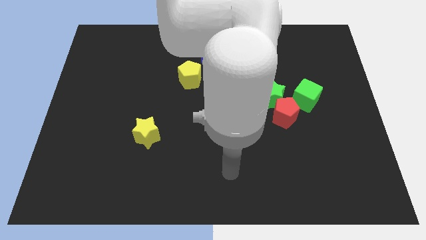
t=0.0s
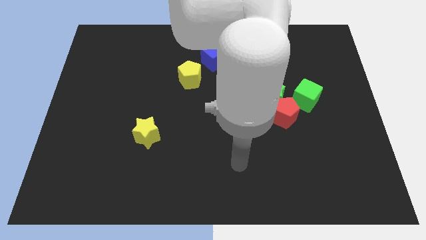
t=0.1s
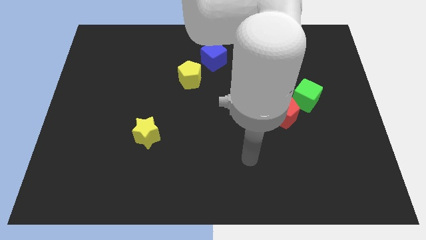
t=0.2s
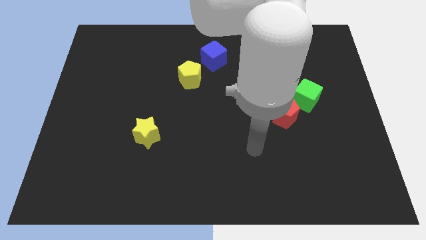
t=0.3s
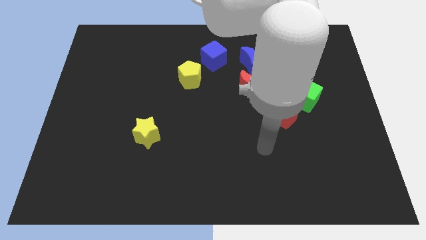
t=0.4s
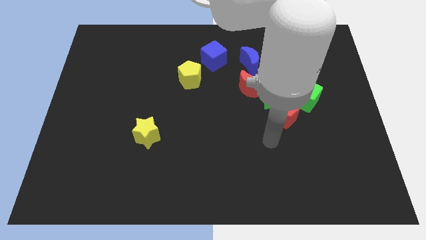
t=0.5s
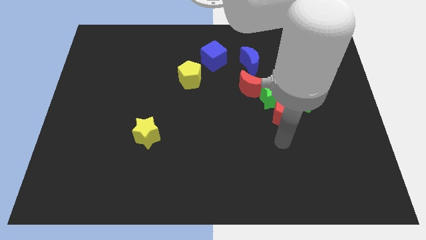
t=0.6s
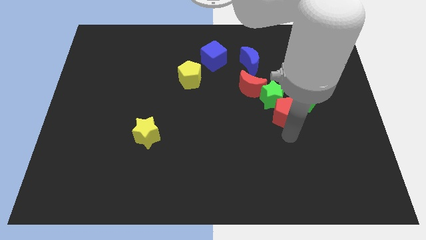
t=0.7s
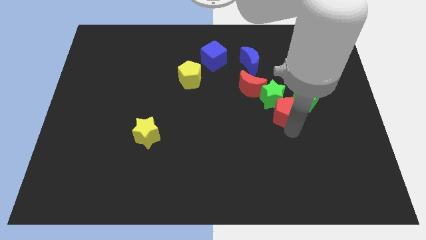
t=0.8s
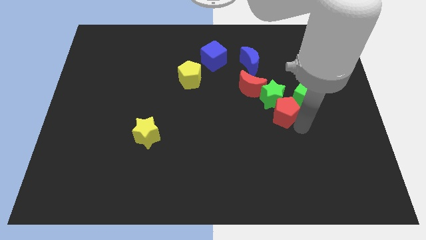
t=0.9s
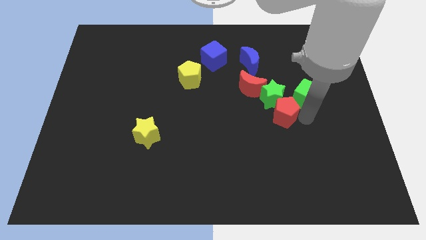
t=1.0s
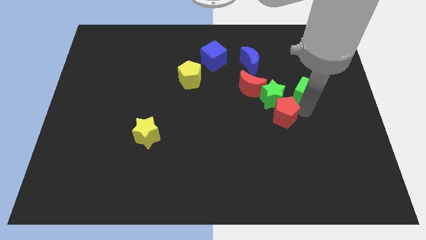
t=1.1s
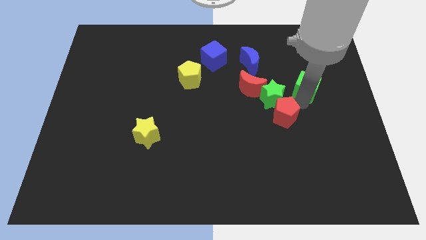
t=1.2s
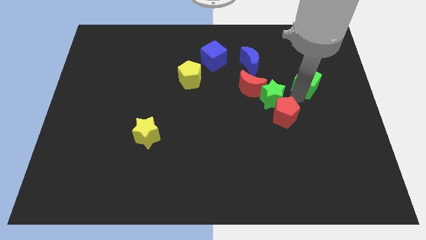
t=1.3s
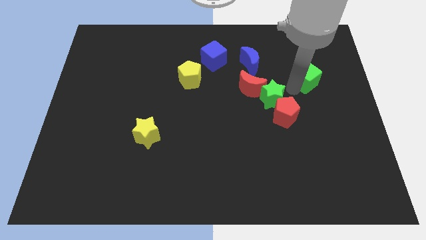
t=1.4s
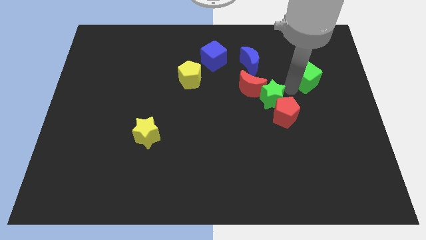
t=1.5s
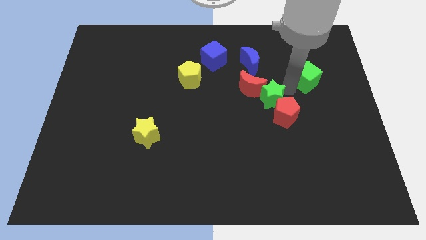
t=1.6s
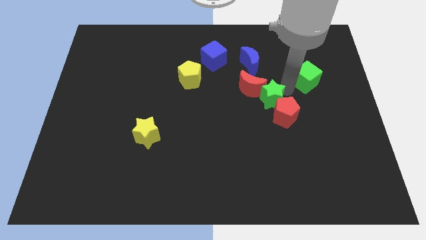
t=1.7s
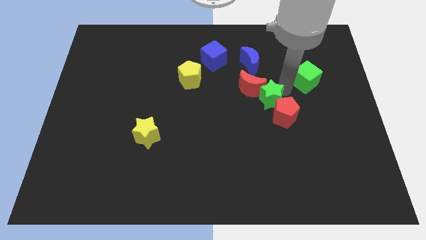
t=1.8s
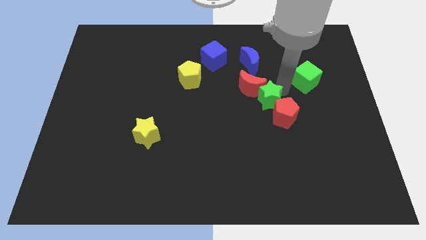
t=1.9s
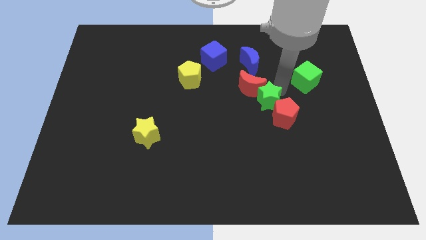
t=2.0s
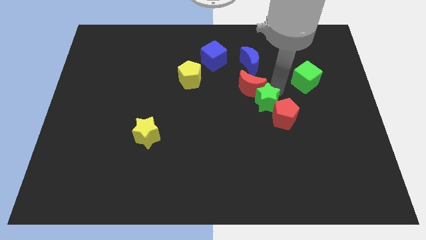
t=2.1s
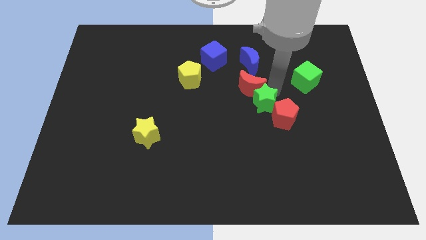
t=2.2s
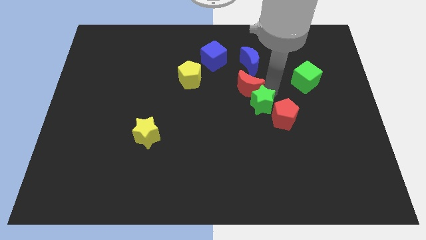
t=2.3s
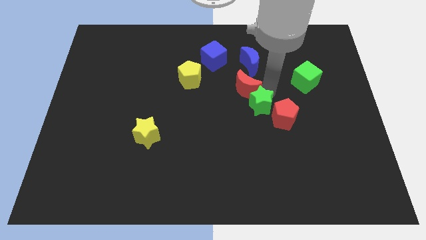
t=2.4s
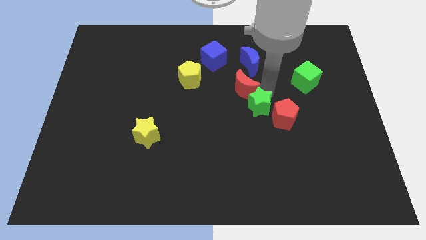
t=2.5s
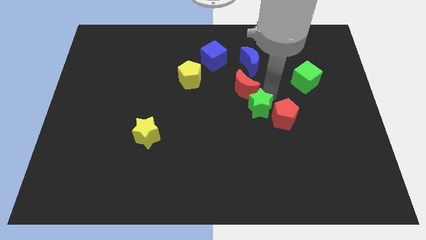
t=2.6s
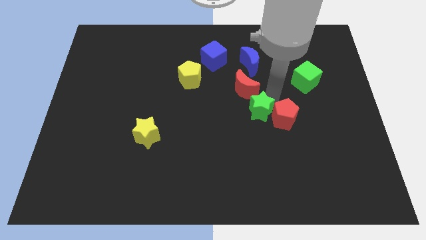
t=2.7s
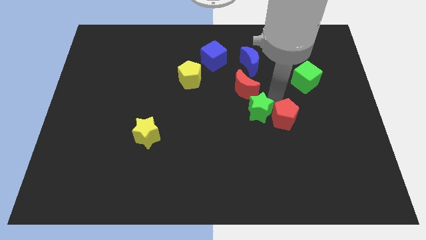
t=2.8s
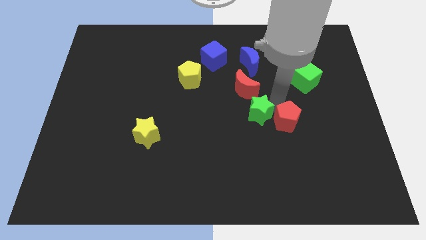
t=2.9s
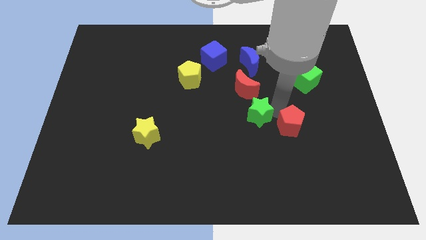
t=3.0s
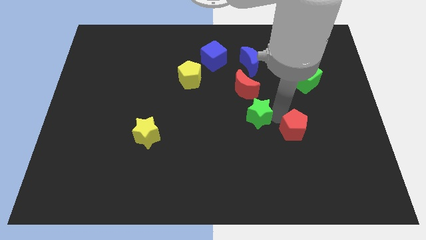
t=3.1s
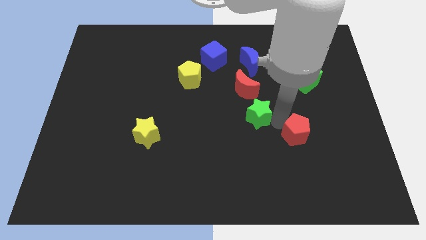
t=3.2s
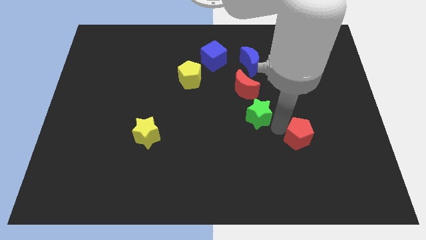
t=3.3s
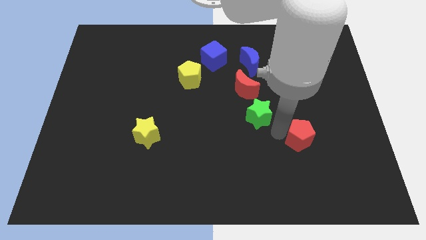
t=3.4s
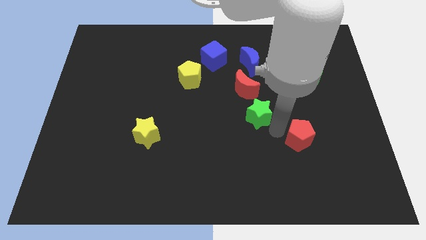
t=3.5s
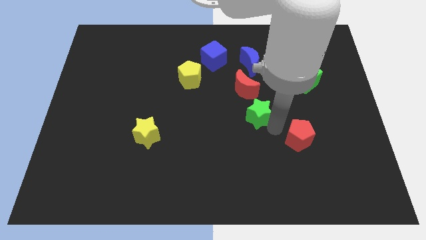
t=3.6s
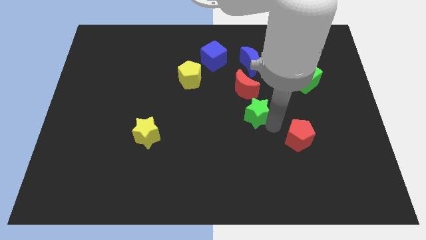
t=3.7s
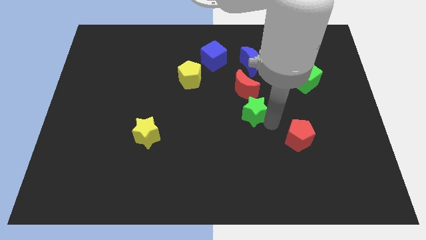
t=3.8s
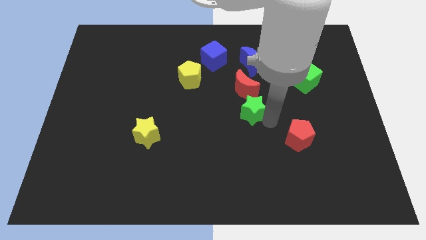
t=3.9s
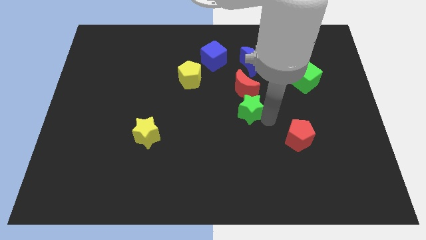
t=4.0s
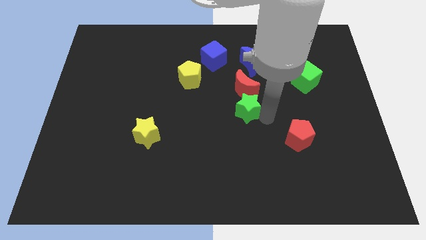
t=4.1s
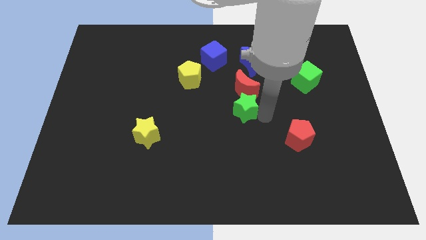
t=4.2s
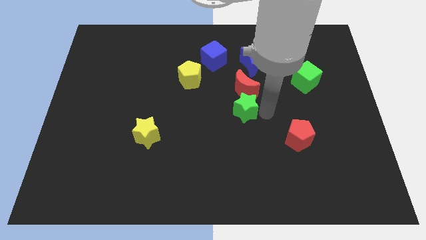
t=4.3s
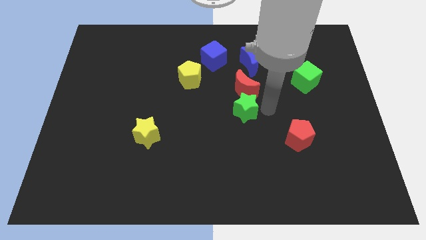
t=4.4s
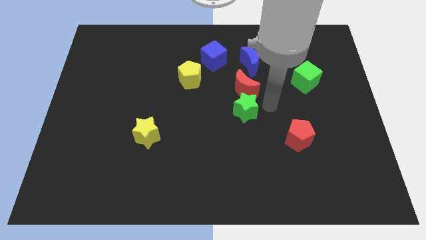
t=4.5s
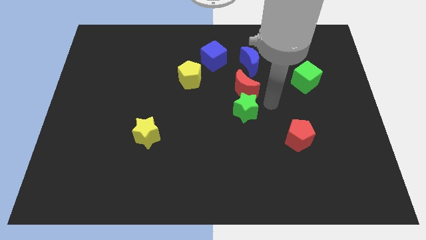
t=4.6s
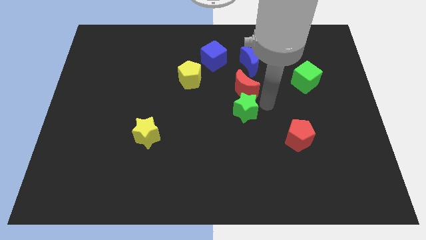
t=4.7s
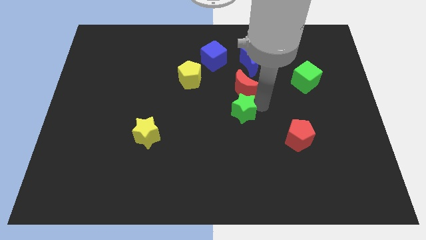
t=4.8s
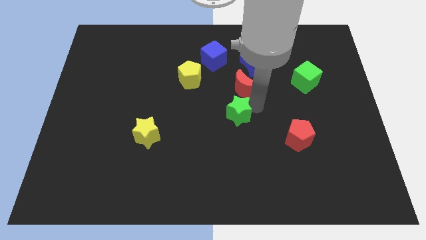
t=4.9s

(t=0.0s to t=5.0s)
move the green star away from the red moon, red pentagon, and green cube

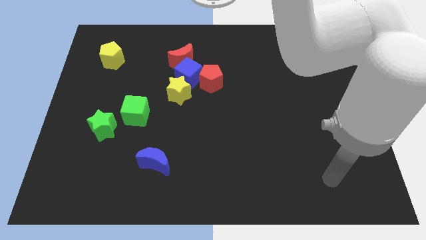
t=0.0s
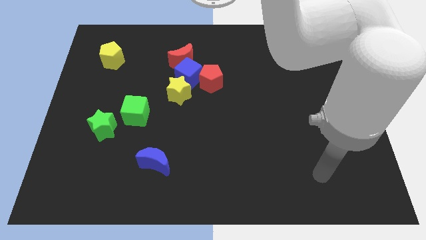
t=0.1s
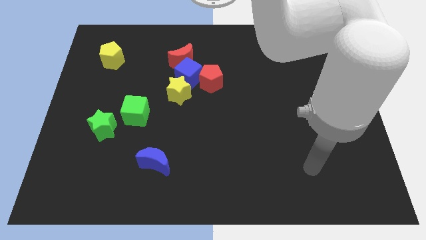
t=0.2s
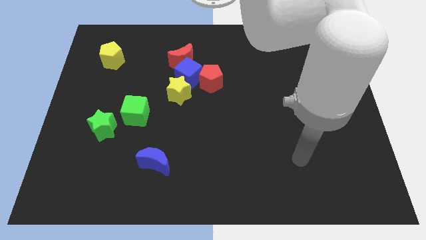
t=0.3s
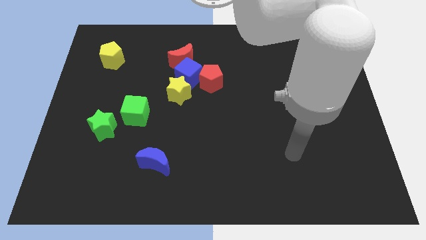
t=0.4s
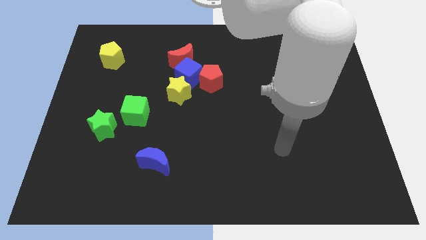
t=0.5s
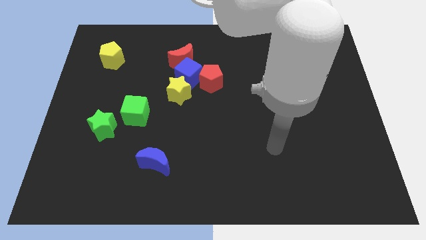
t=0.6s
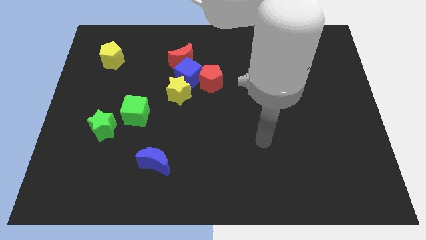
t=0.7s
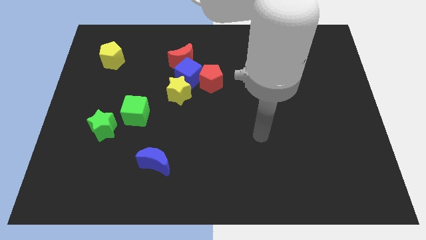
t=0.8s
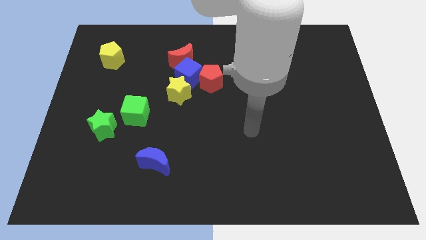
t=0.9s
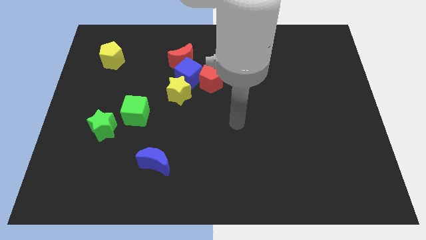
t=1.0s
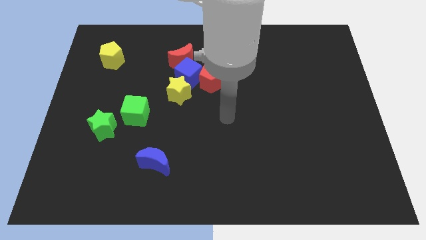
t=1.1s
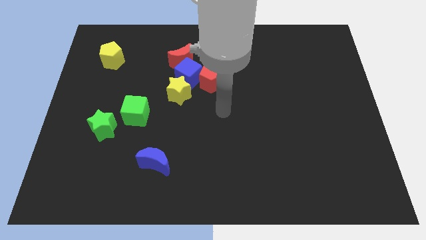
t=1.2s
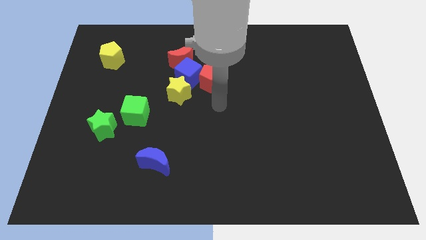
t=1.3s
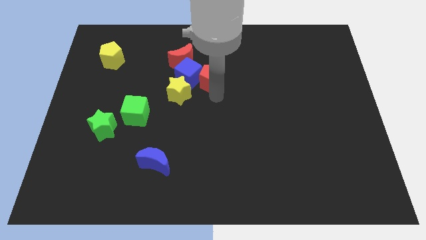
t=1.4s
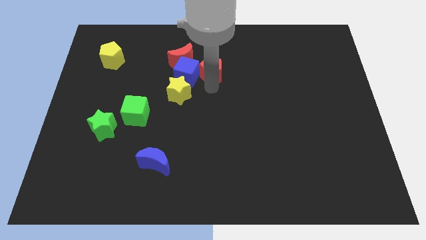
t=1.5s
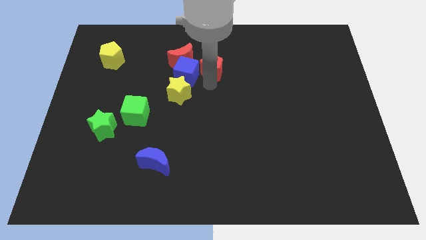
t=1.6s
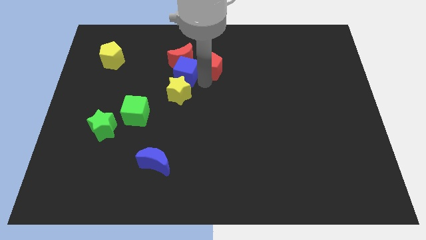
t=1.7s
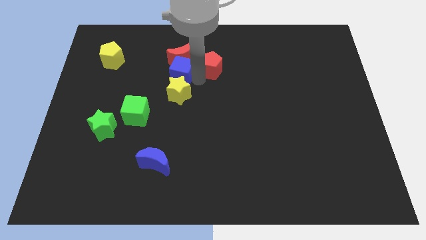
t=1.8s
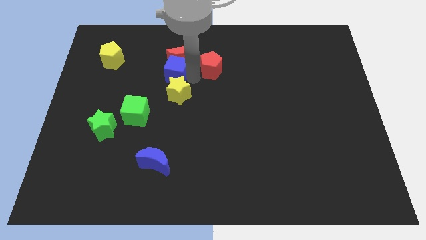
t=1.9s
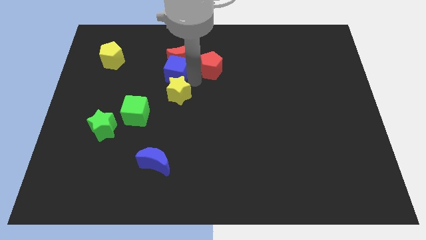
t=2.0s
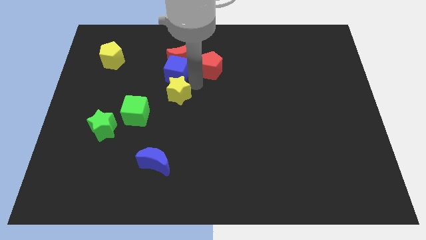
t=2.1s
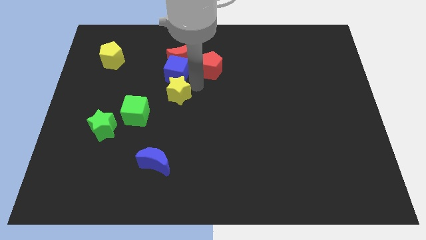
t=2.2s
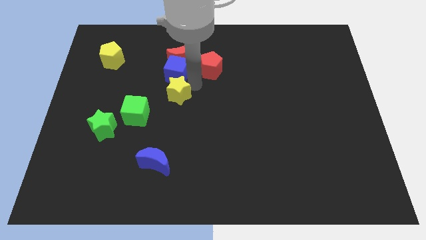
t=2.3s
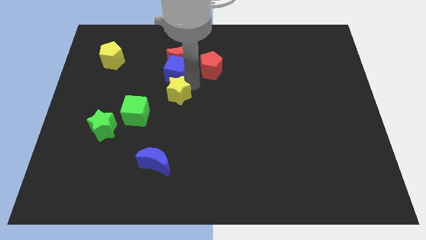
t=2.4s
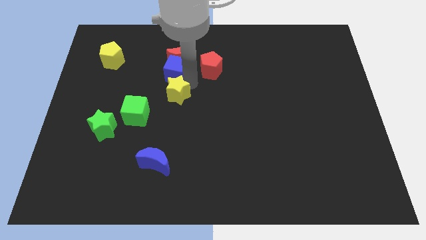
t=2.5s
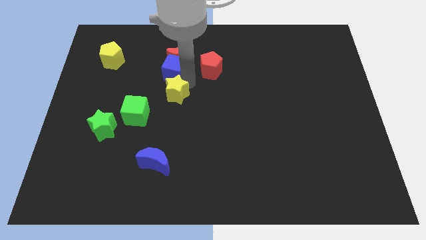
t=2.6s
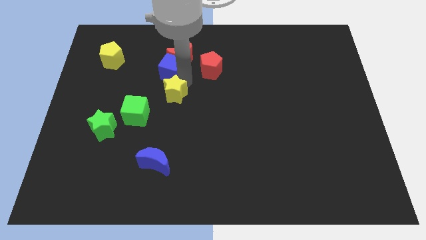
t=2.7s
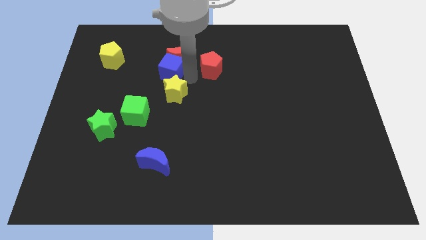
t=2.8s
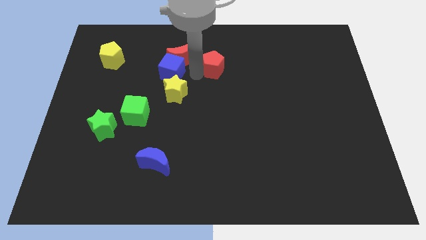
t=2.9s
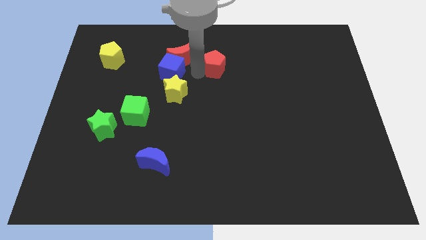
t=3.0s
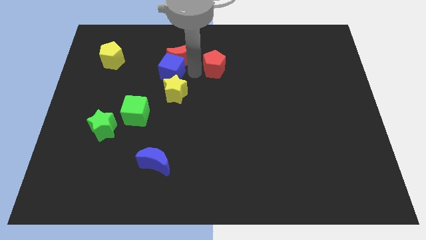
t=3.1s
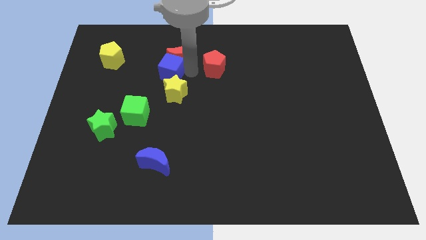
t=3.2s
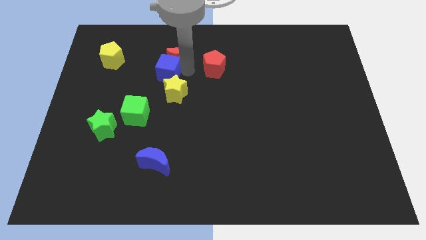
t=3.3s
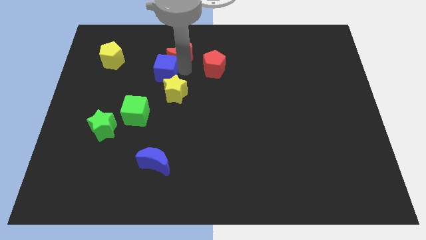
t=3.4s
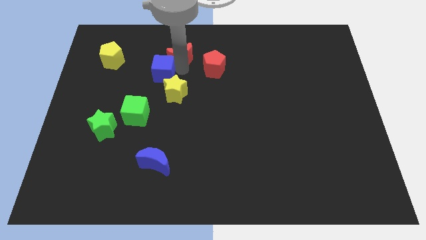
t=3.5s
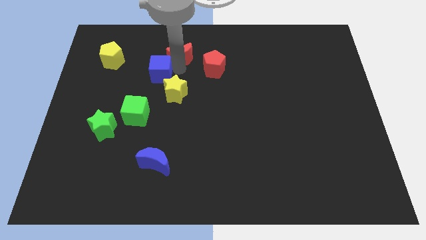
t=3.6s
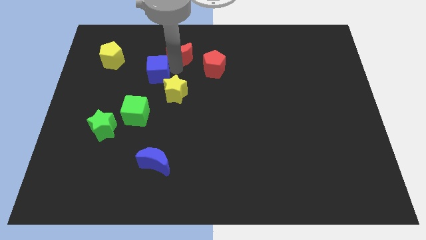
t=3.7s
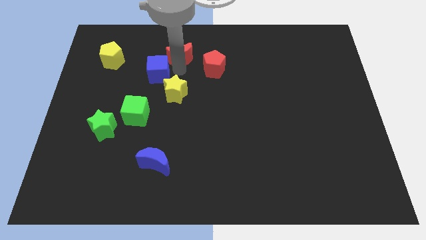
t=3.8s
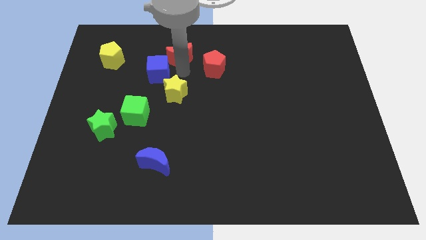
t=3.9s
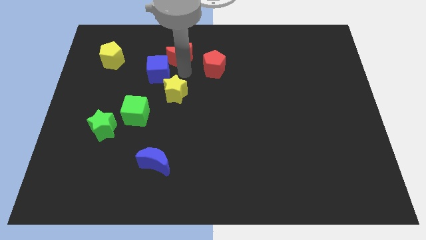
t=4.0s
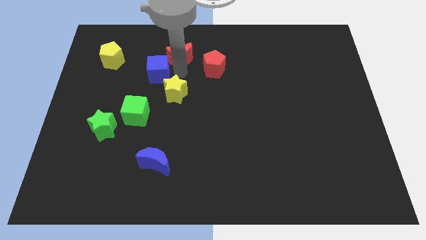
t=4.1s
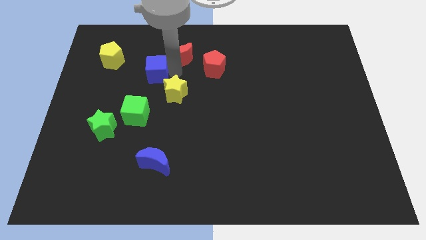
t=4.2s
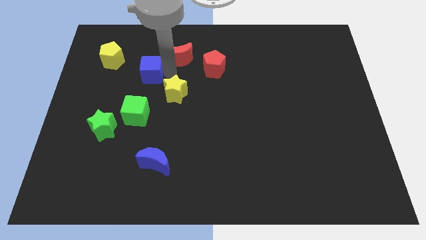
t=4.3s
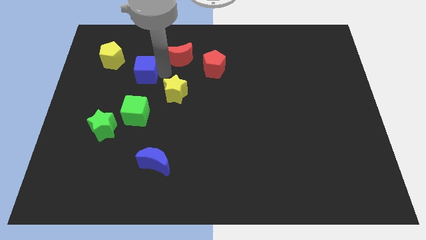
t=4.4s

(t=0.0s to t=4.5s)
pull the blue cube apart from the yellow star, red pentagon, and red moon
